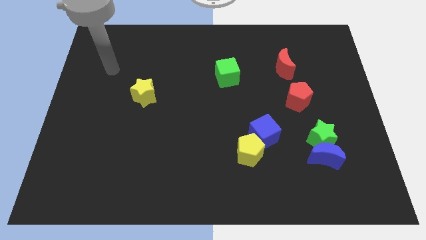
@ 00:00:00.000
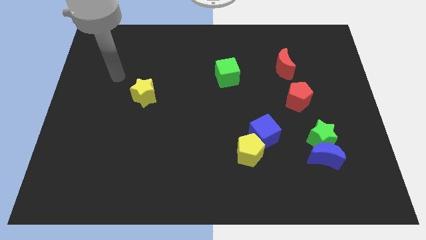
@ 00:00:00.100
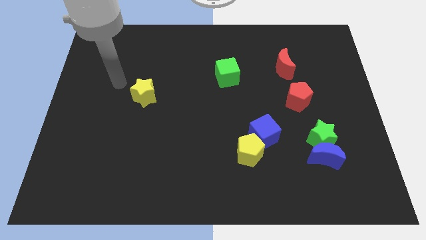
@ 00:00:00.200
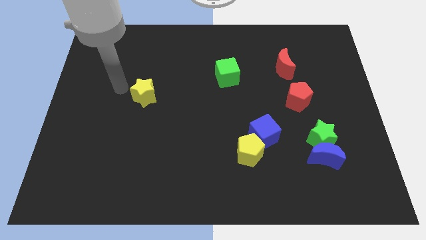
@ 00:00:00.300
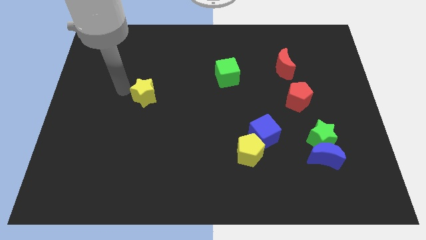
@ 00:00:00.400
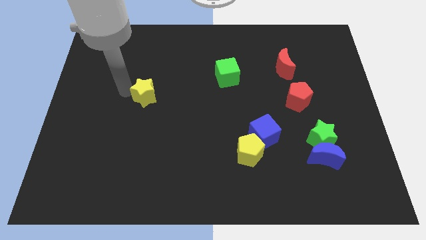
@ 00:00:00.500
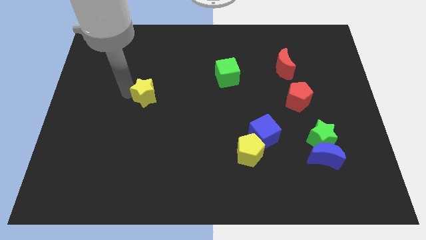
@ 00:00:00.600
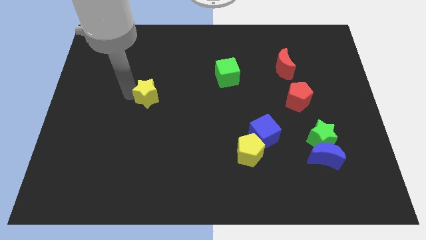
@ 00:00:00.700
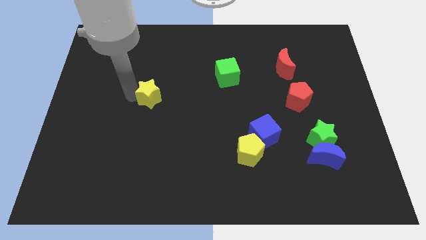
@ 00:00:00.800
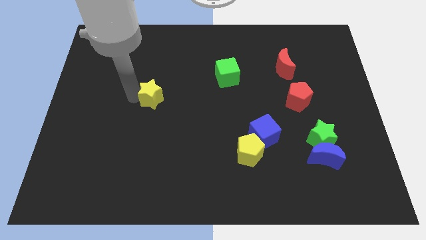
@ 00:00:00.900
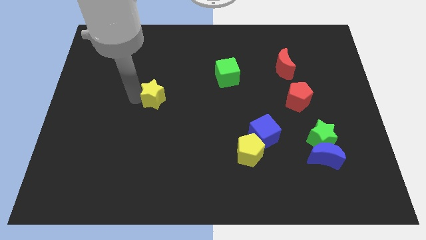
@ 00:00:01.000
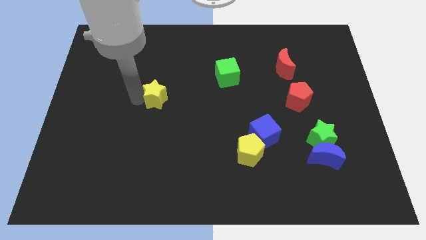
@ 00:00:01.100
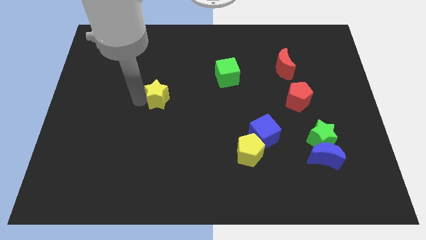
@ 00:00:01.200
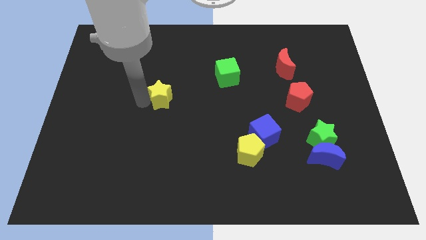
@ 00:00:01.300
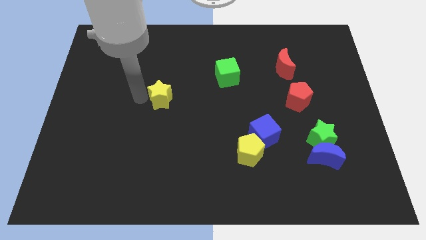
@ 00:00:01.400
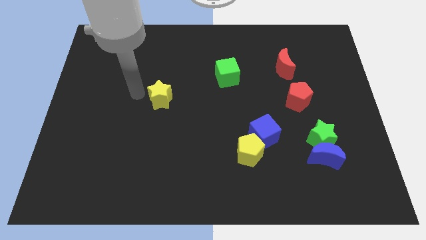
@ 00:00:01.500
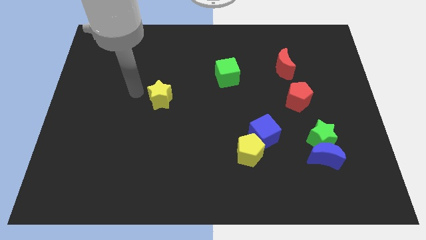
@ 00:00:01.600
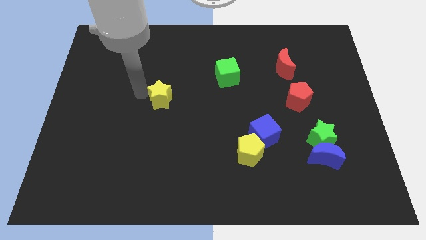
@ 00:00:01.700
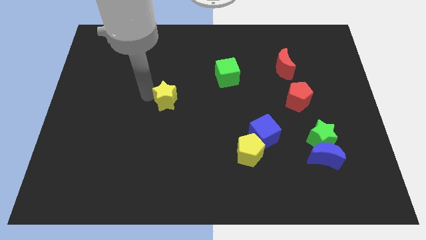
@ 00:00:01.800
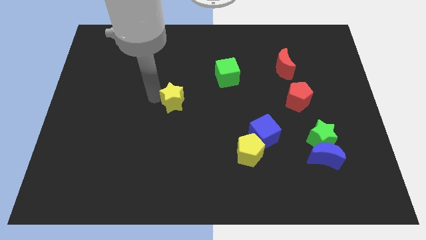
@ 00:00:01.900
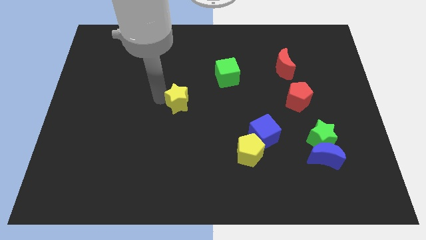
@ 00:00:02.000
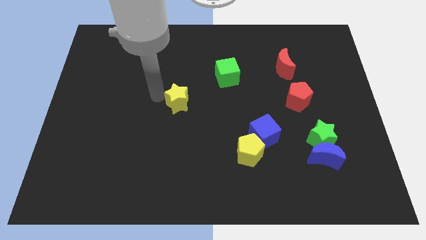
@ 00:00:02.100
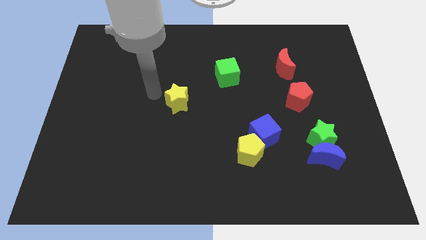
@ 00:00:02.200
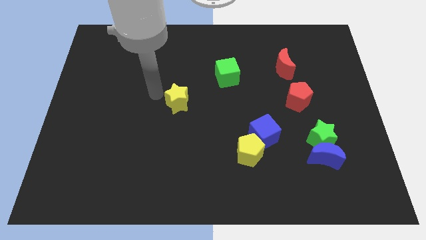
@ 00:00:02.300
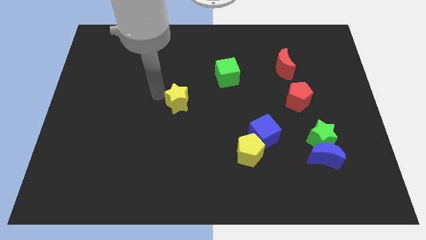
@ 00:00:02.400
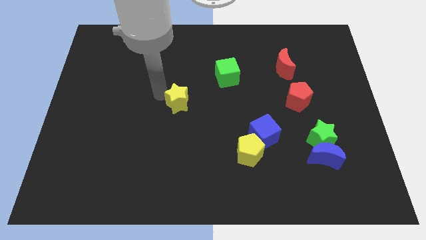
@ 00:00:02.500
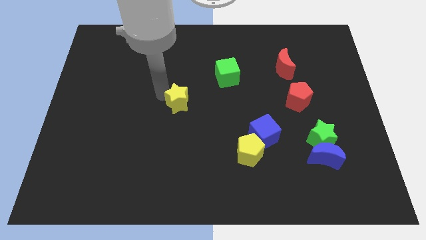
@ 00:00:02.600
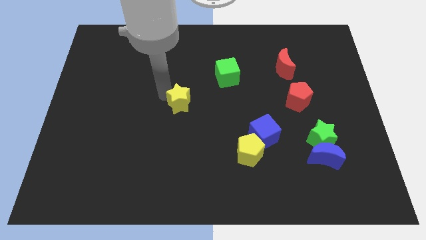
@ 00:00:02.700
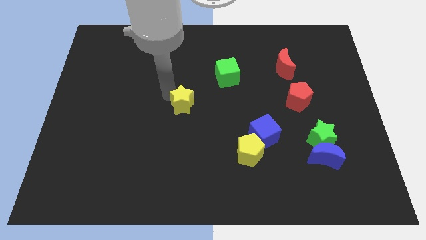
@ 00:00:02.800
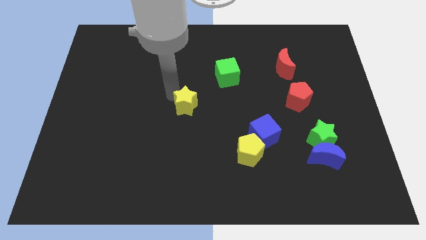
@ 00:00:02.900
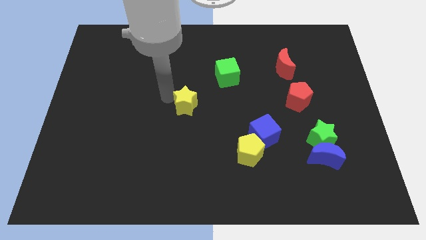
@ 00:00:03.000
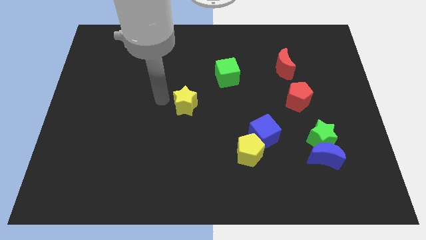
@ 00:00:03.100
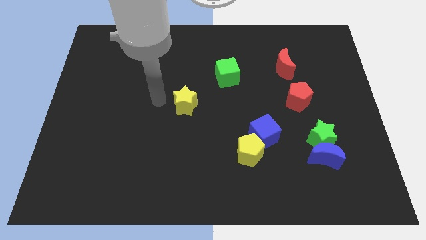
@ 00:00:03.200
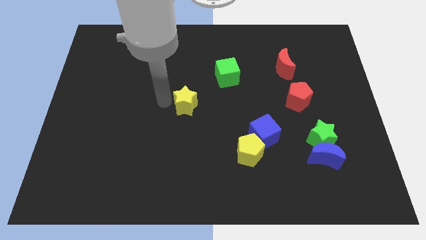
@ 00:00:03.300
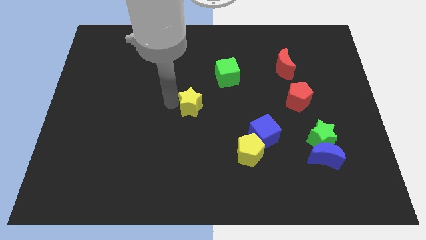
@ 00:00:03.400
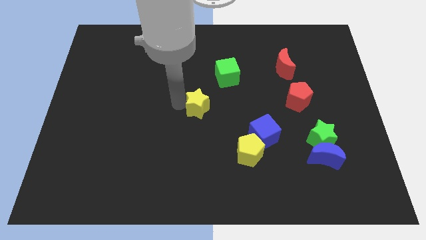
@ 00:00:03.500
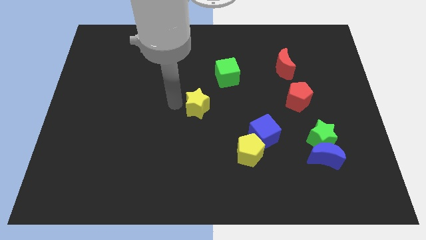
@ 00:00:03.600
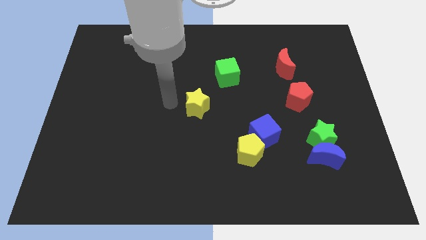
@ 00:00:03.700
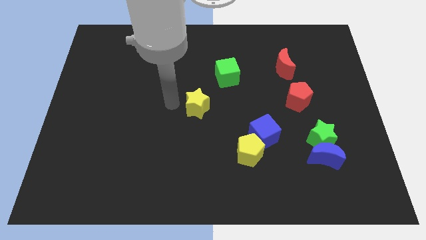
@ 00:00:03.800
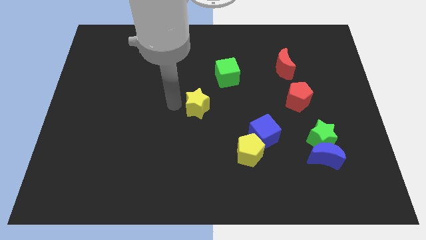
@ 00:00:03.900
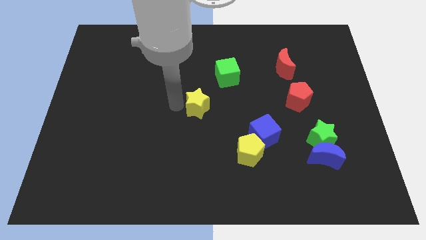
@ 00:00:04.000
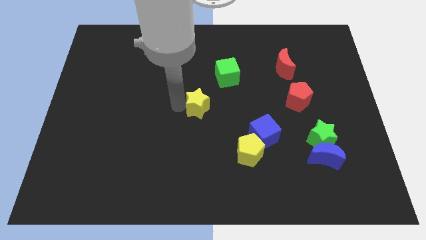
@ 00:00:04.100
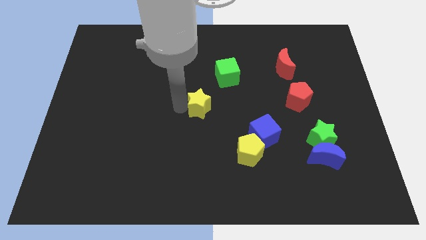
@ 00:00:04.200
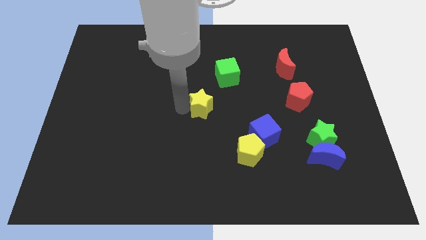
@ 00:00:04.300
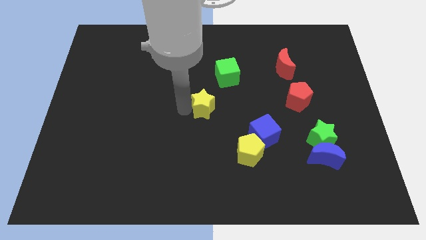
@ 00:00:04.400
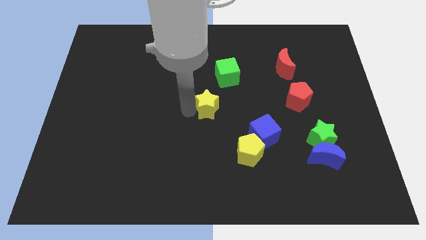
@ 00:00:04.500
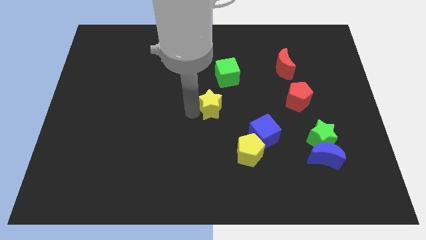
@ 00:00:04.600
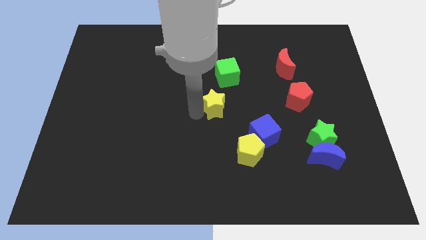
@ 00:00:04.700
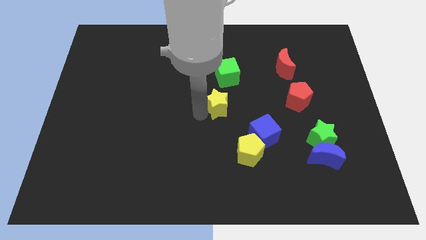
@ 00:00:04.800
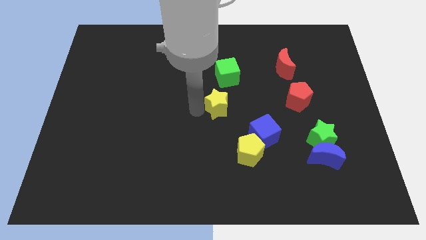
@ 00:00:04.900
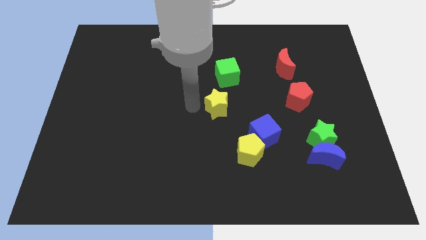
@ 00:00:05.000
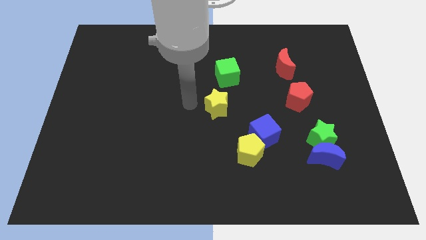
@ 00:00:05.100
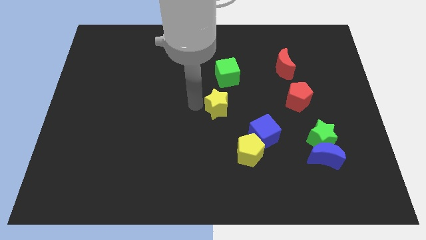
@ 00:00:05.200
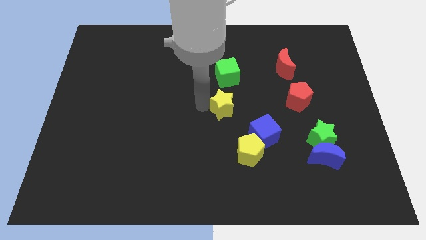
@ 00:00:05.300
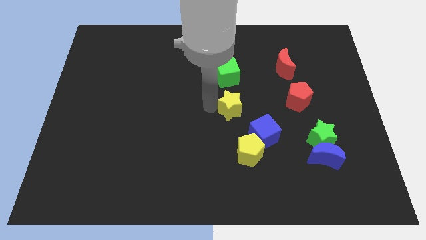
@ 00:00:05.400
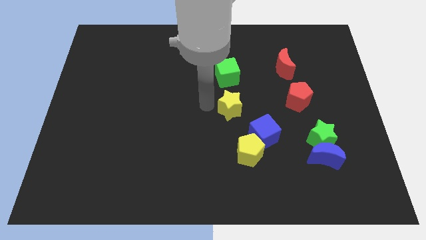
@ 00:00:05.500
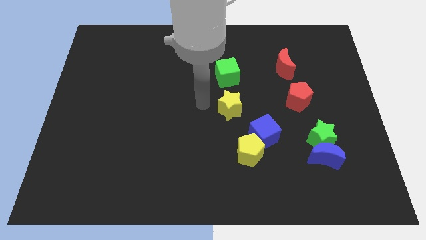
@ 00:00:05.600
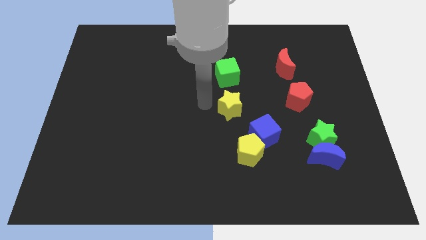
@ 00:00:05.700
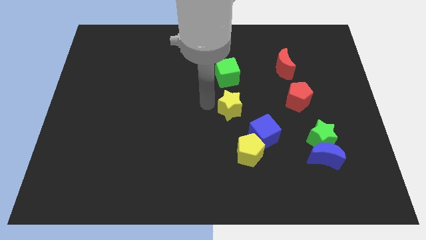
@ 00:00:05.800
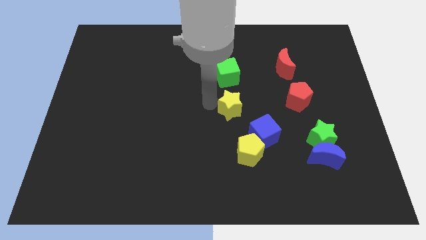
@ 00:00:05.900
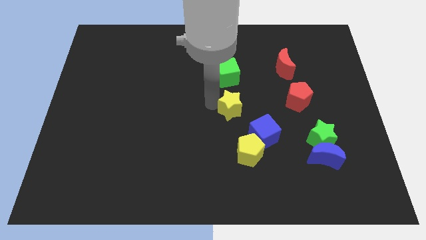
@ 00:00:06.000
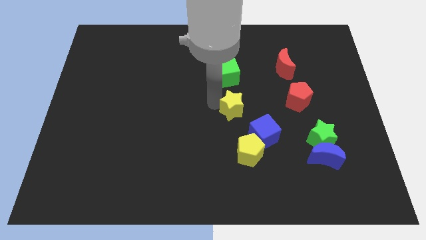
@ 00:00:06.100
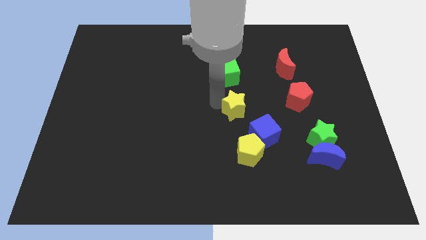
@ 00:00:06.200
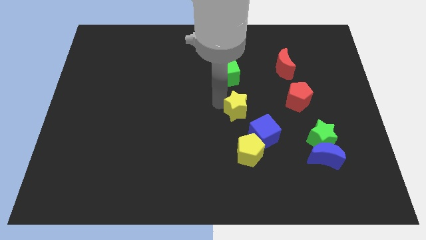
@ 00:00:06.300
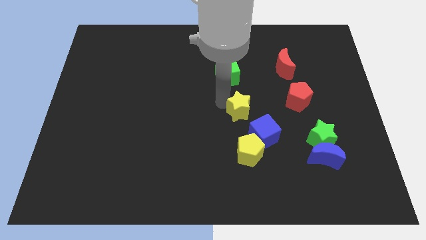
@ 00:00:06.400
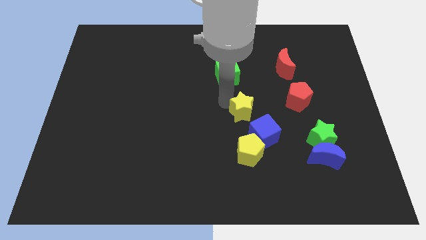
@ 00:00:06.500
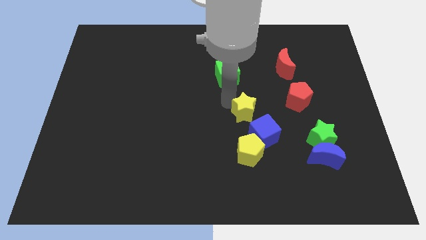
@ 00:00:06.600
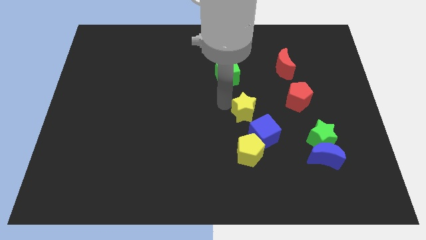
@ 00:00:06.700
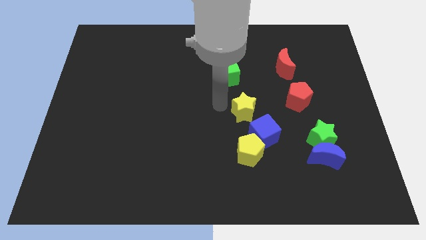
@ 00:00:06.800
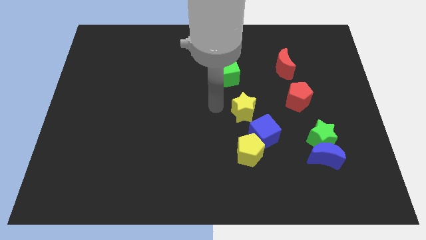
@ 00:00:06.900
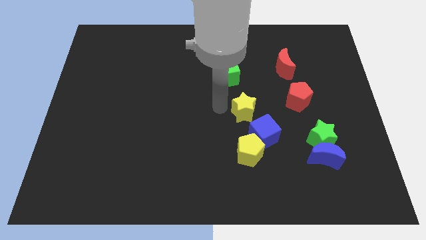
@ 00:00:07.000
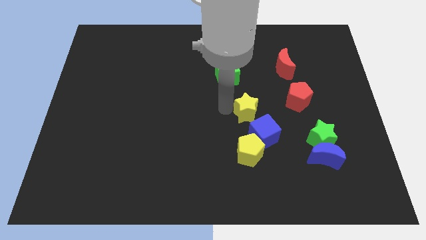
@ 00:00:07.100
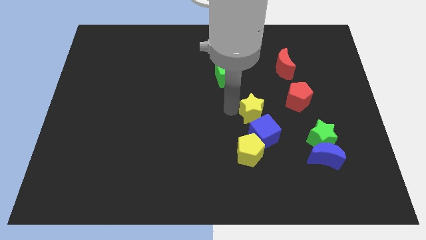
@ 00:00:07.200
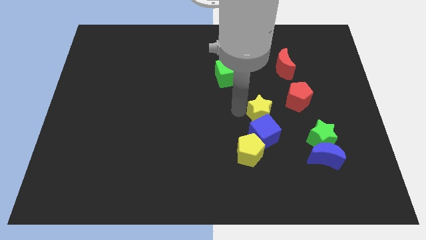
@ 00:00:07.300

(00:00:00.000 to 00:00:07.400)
slide the yellow star to the bottom left of the red pentagon
